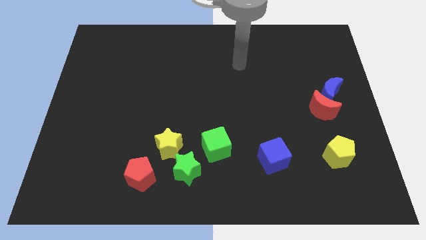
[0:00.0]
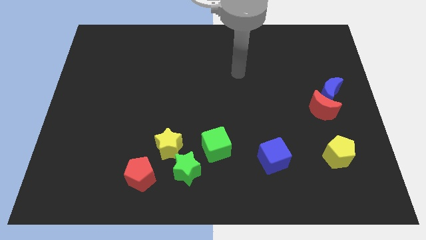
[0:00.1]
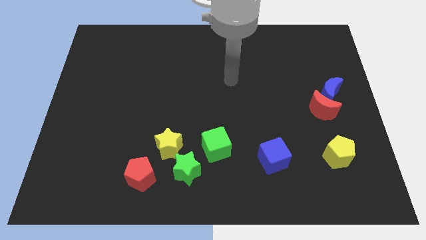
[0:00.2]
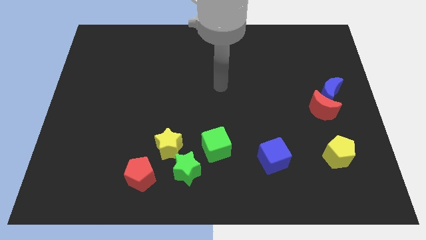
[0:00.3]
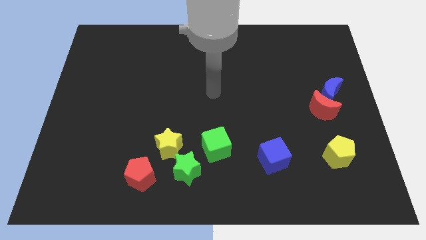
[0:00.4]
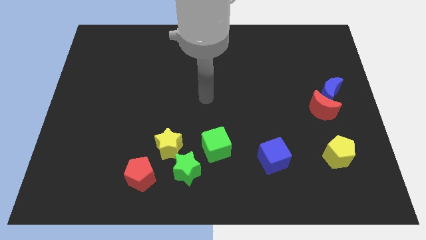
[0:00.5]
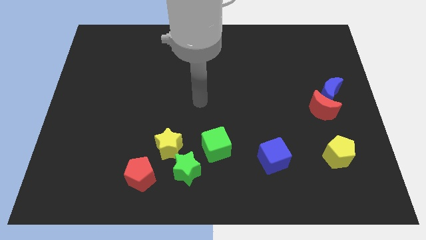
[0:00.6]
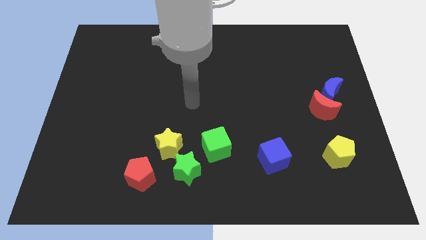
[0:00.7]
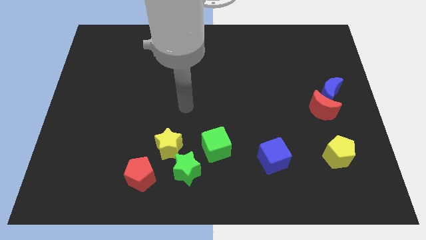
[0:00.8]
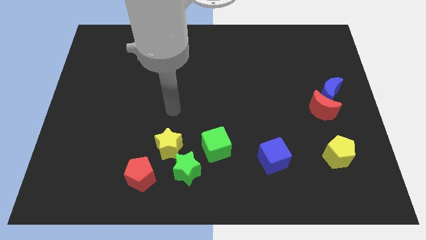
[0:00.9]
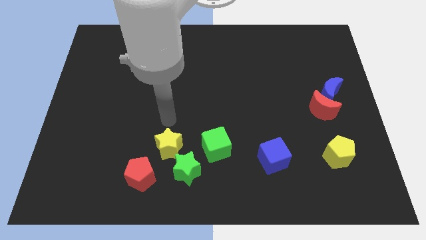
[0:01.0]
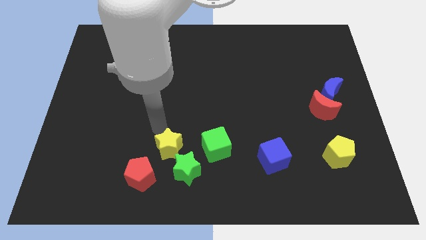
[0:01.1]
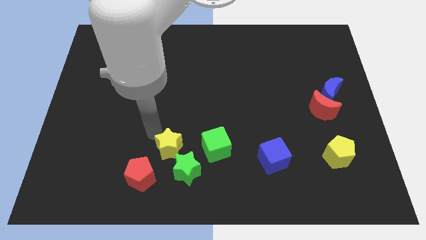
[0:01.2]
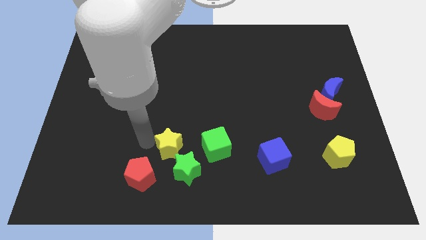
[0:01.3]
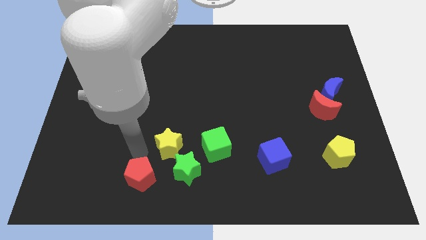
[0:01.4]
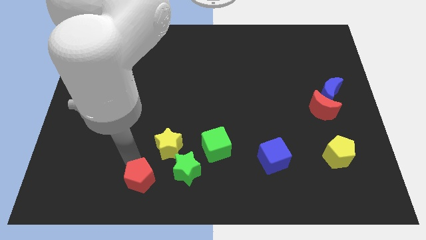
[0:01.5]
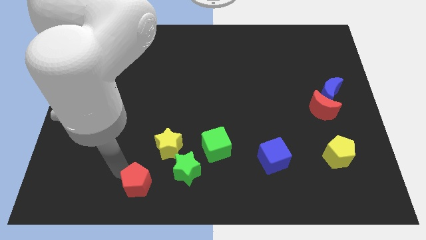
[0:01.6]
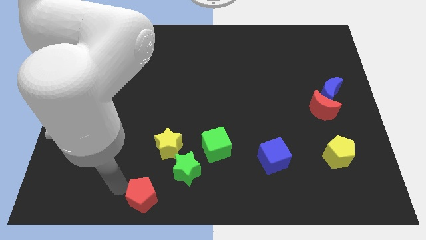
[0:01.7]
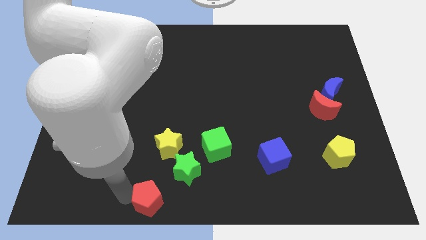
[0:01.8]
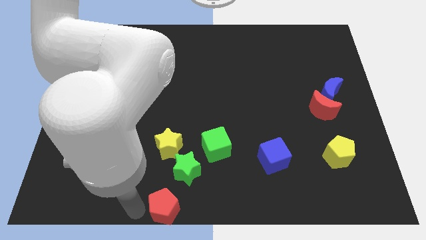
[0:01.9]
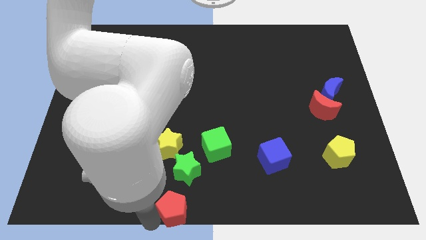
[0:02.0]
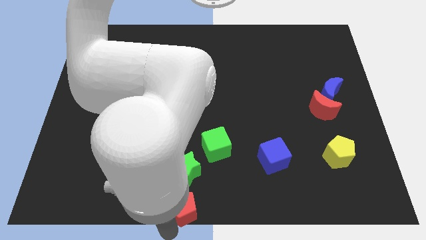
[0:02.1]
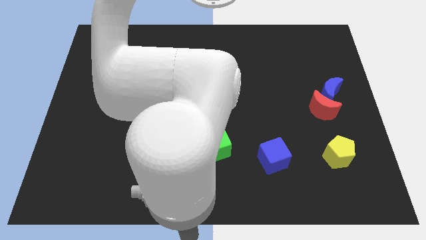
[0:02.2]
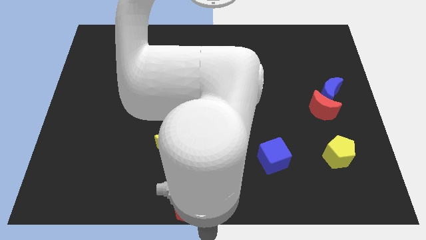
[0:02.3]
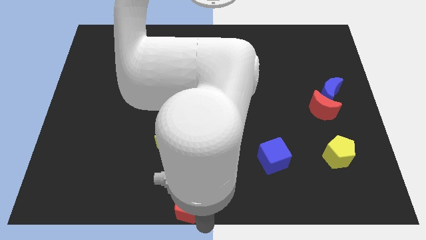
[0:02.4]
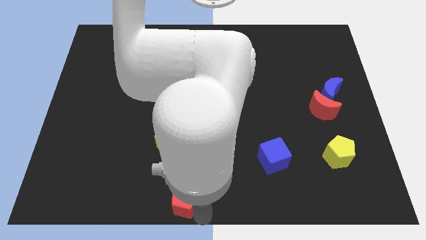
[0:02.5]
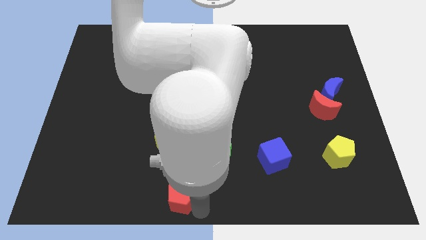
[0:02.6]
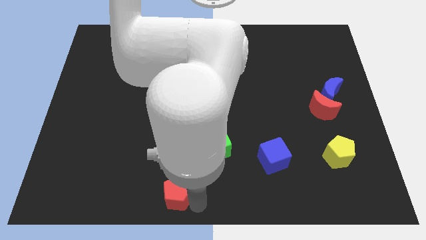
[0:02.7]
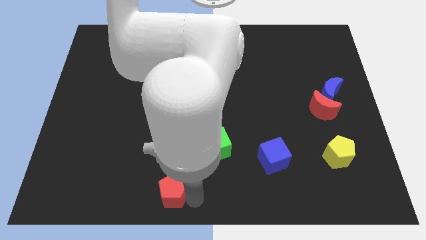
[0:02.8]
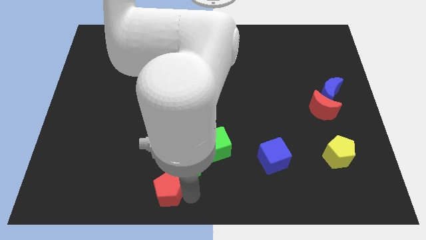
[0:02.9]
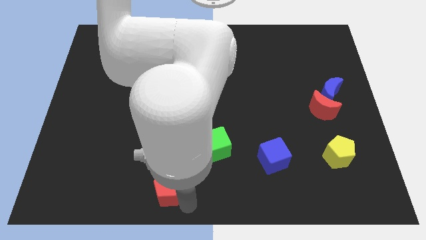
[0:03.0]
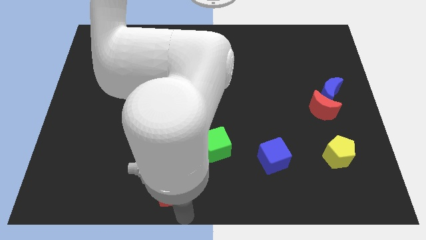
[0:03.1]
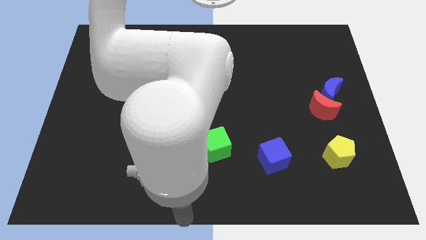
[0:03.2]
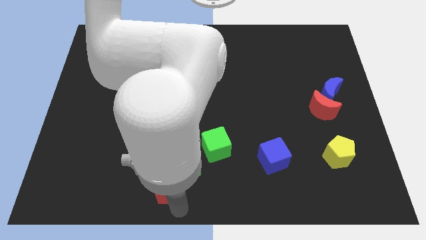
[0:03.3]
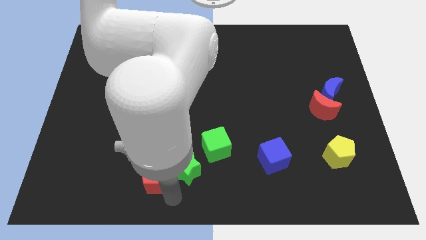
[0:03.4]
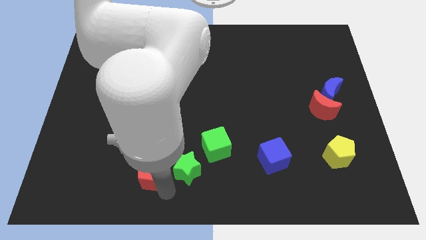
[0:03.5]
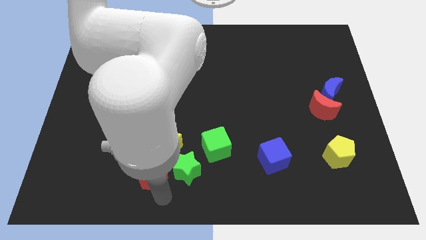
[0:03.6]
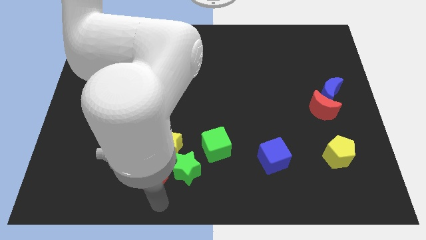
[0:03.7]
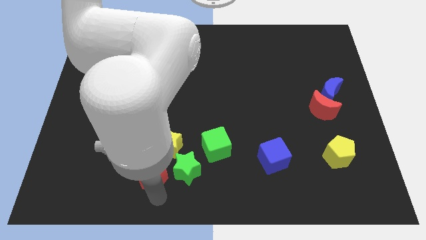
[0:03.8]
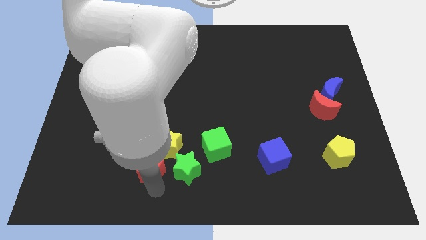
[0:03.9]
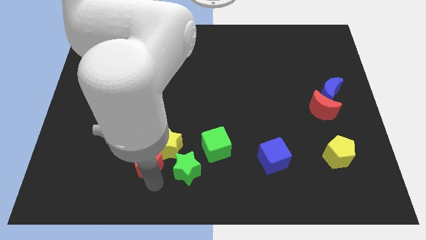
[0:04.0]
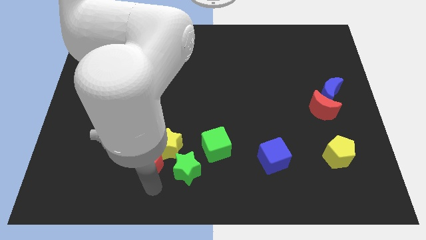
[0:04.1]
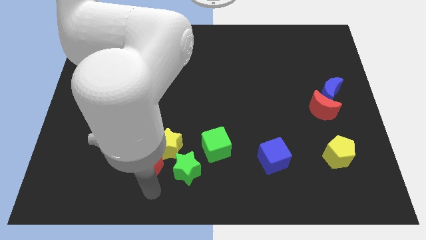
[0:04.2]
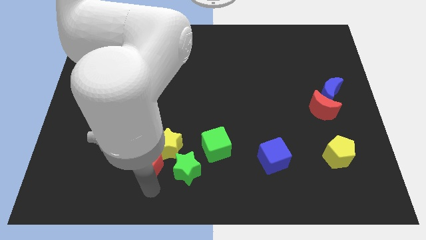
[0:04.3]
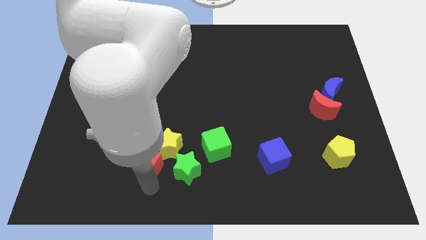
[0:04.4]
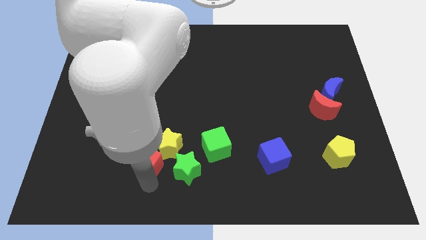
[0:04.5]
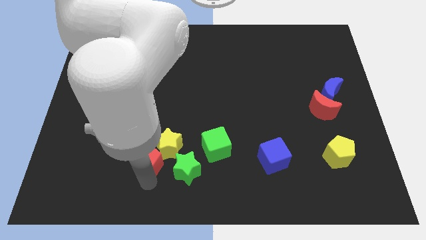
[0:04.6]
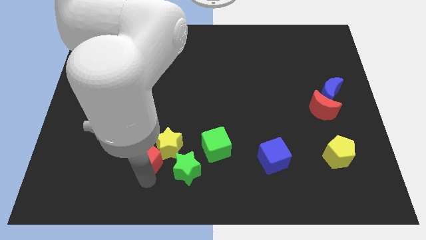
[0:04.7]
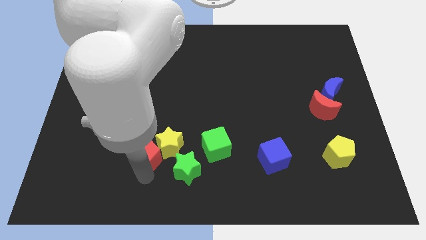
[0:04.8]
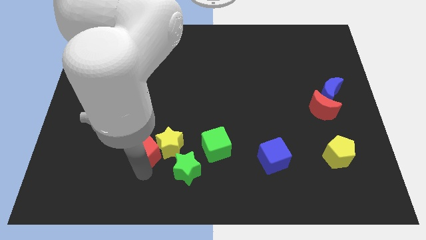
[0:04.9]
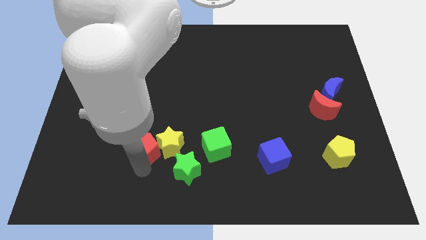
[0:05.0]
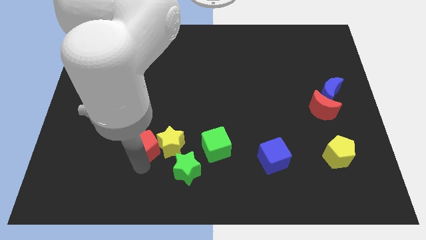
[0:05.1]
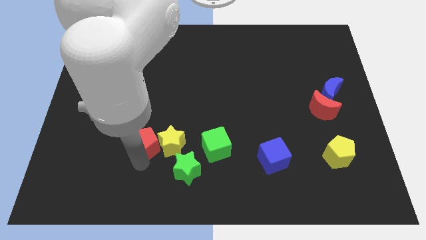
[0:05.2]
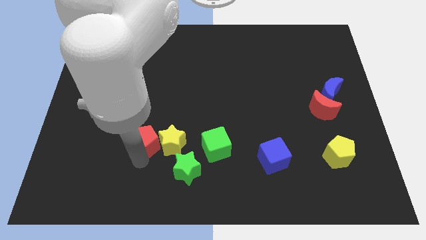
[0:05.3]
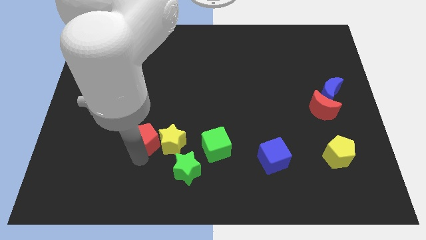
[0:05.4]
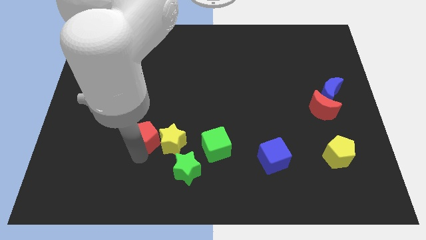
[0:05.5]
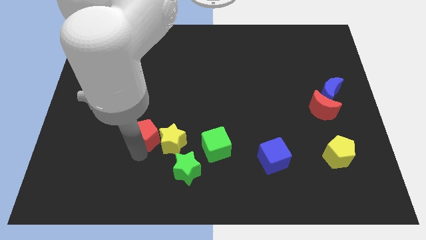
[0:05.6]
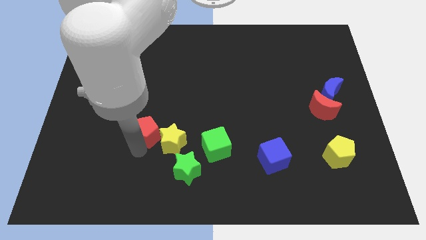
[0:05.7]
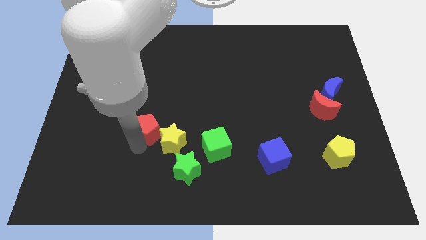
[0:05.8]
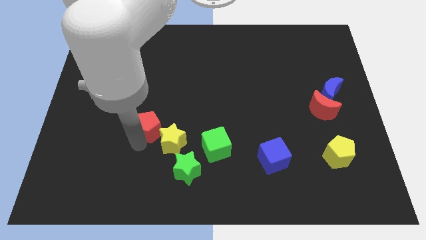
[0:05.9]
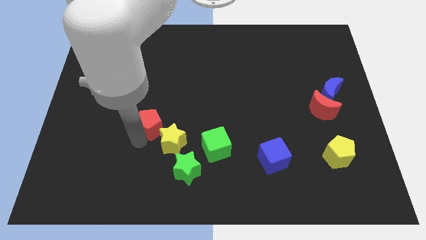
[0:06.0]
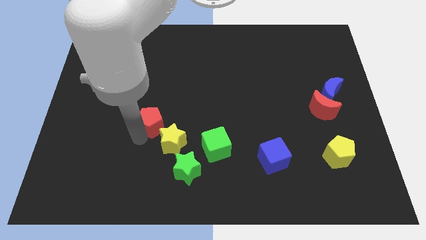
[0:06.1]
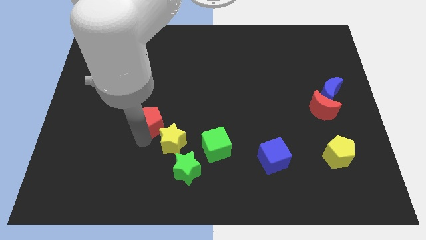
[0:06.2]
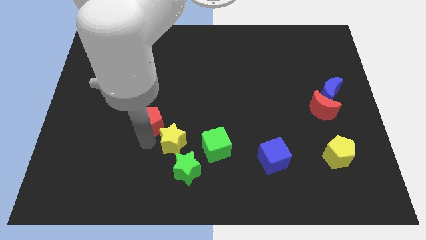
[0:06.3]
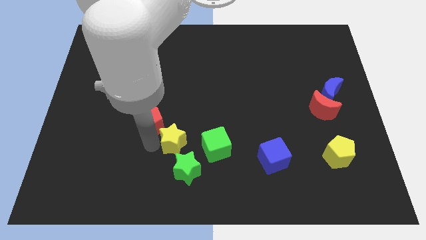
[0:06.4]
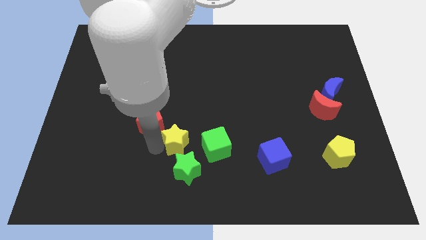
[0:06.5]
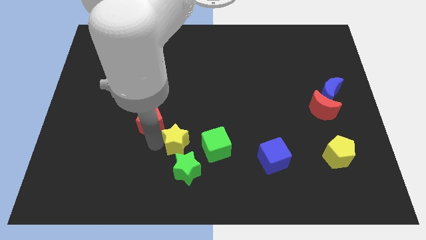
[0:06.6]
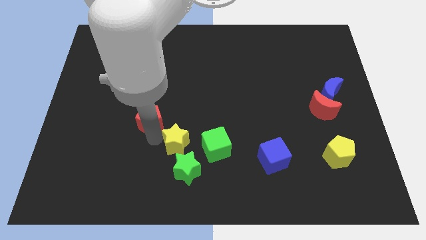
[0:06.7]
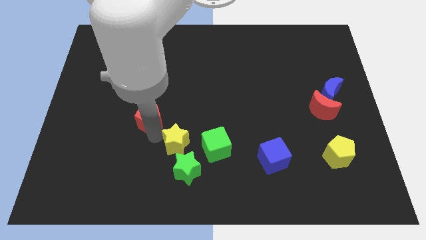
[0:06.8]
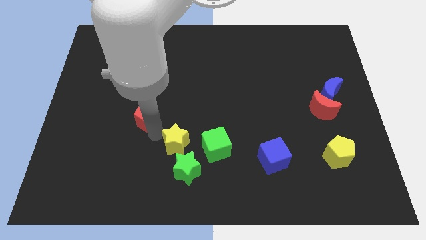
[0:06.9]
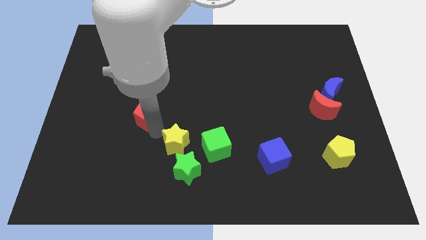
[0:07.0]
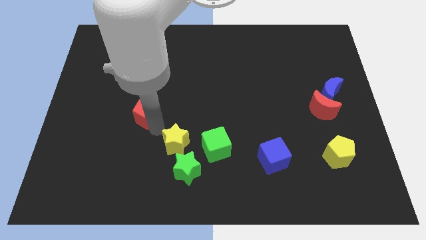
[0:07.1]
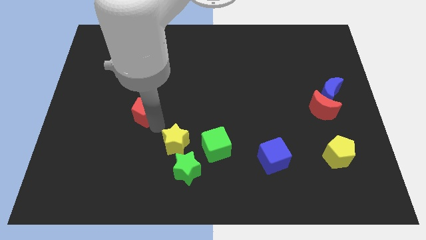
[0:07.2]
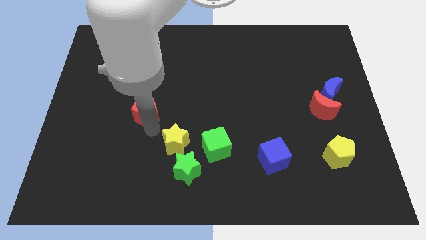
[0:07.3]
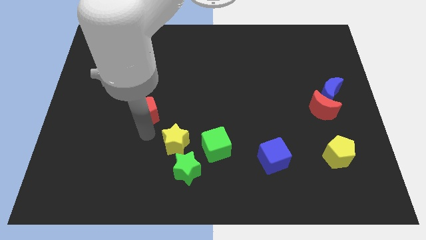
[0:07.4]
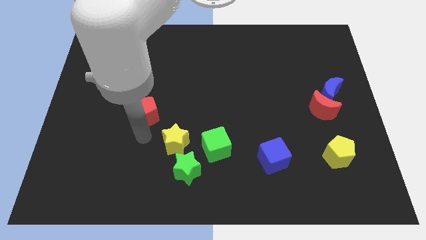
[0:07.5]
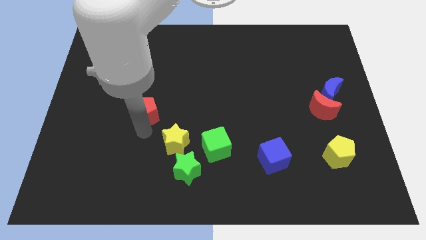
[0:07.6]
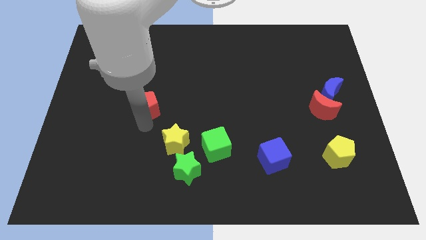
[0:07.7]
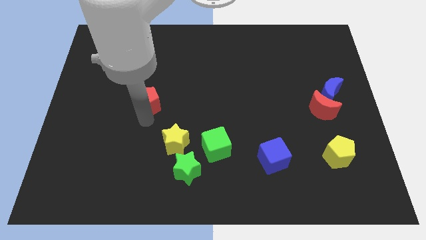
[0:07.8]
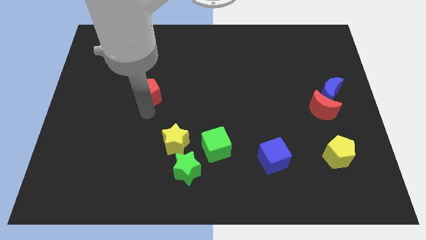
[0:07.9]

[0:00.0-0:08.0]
push the red pentagon up
